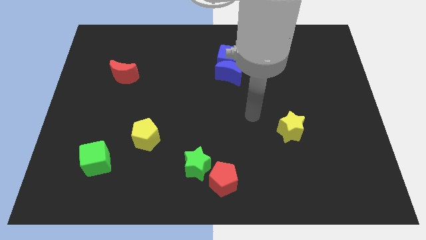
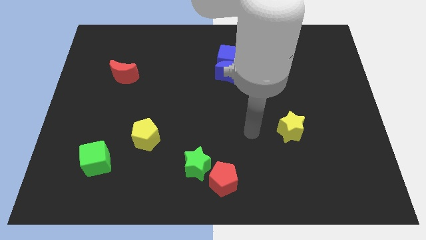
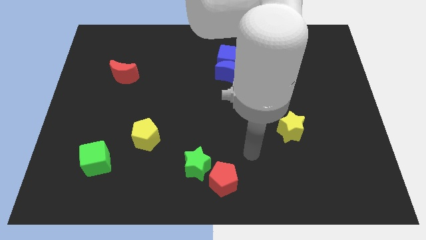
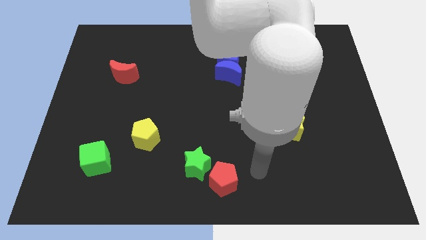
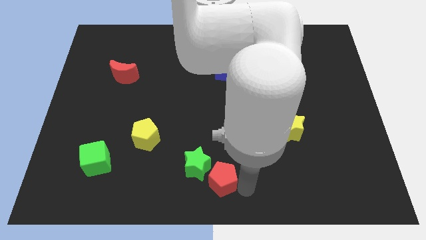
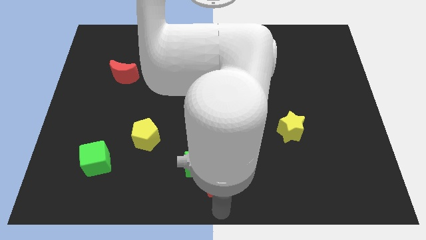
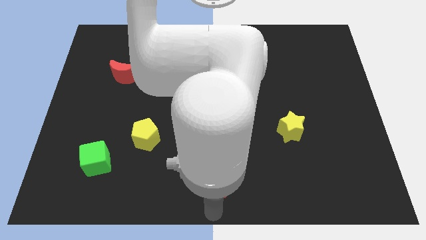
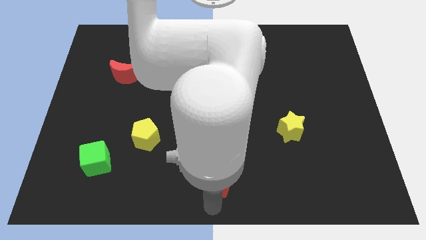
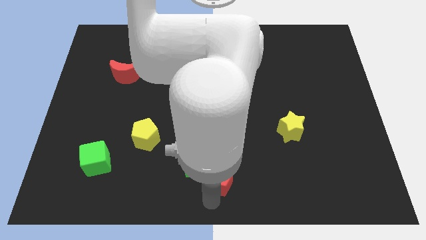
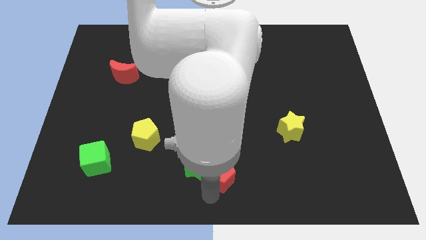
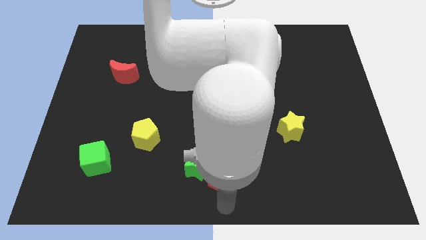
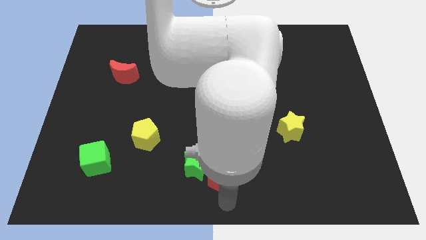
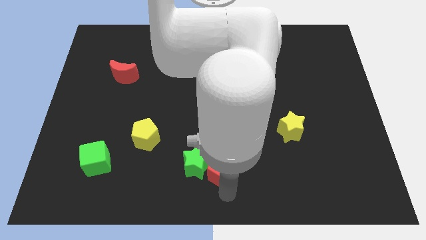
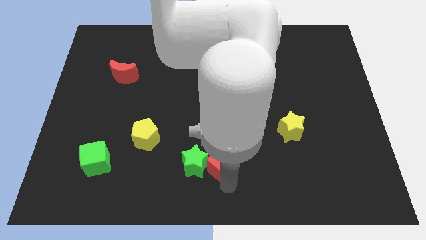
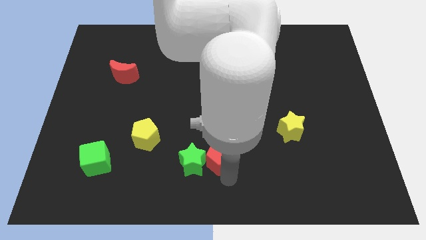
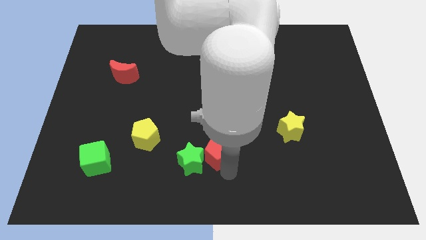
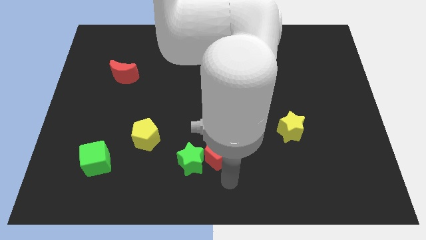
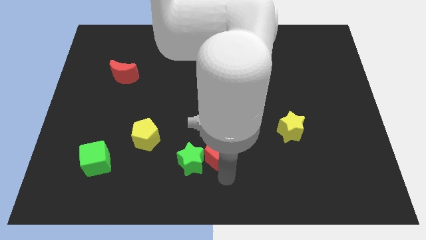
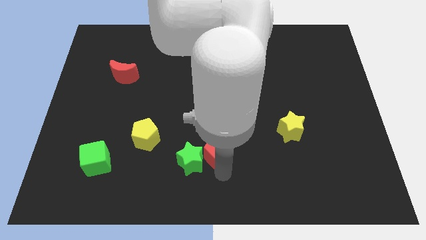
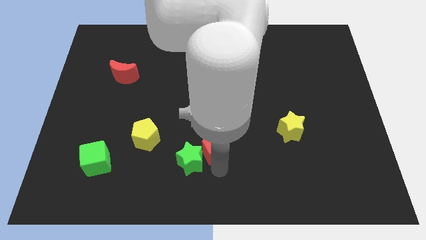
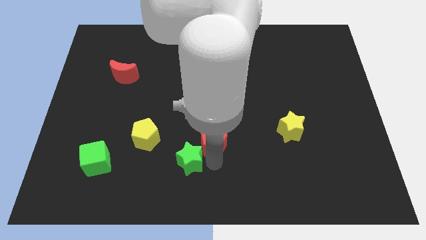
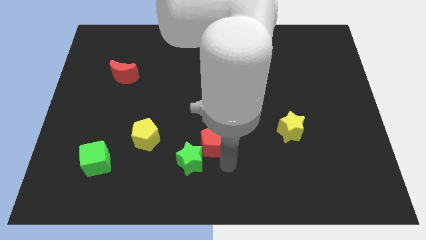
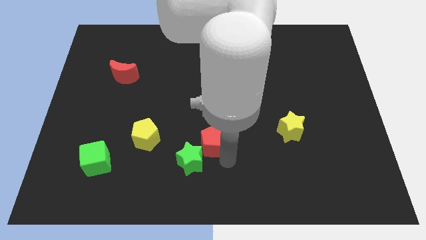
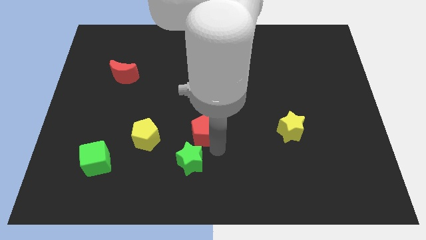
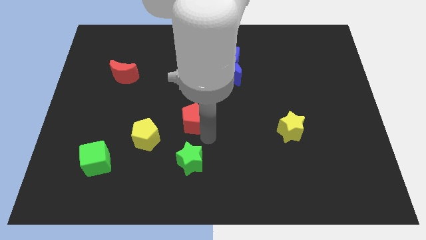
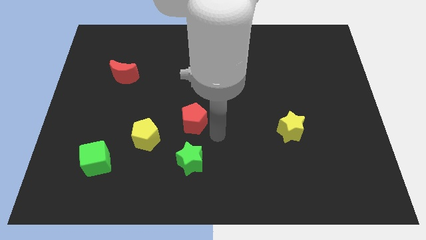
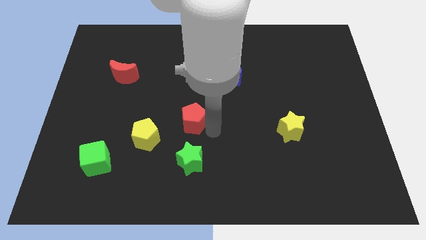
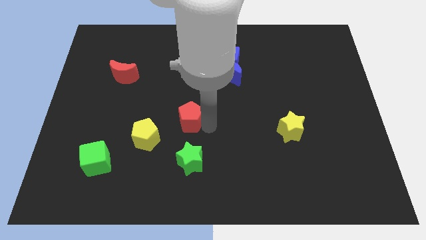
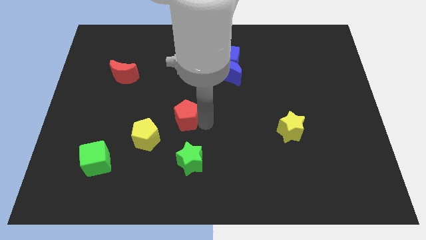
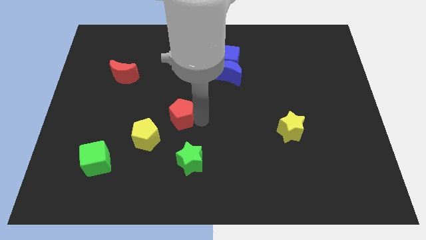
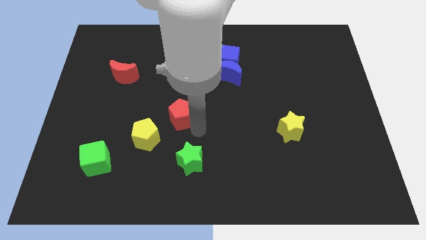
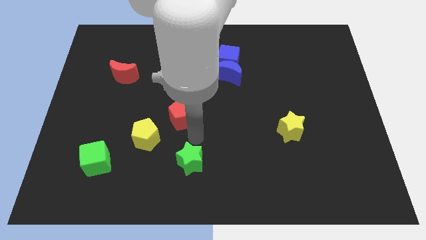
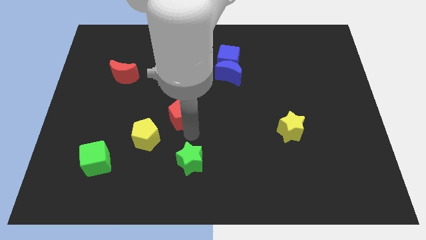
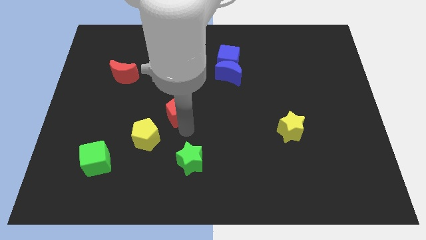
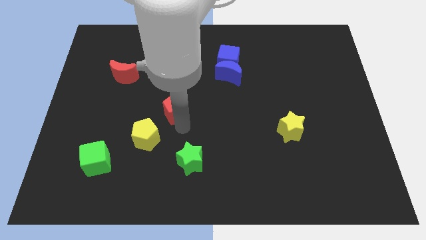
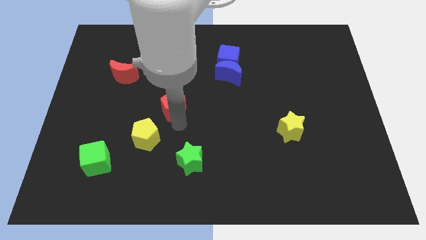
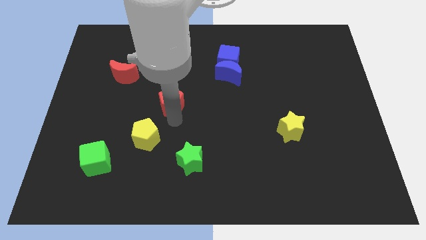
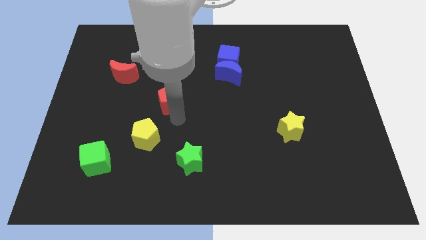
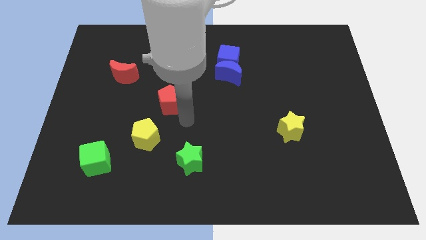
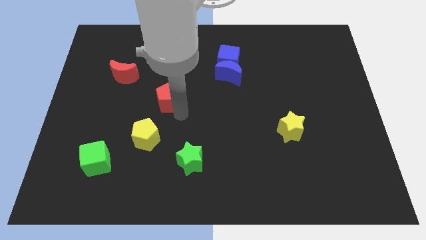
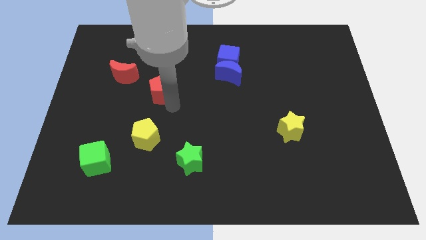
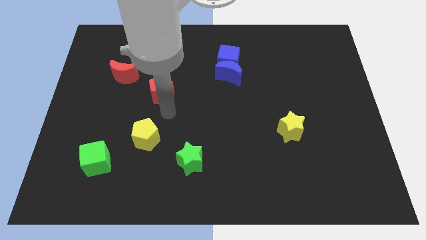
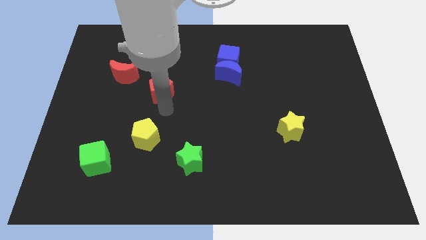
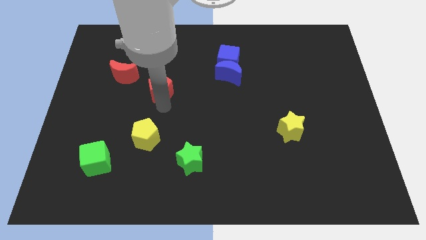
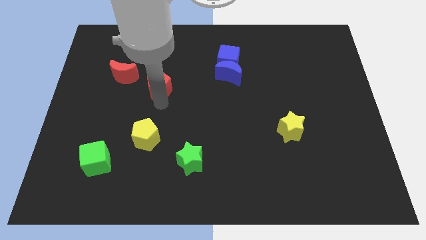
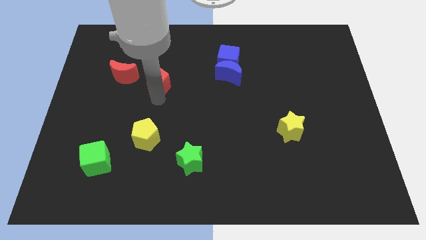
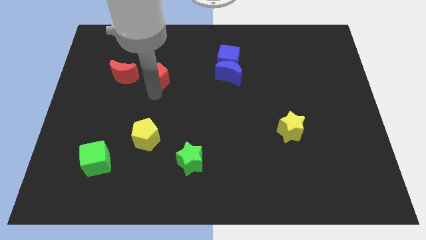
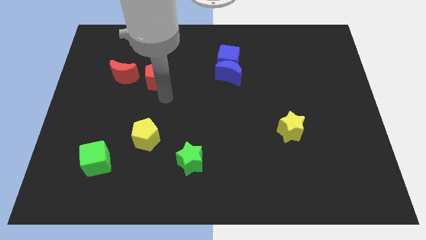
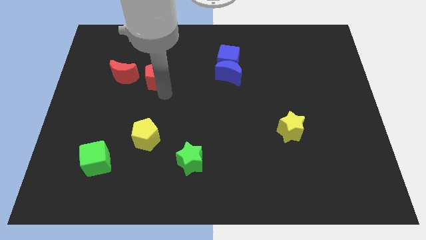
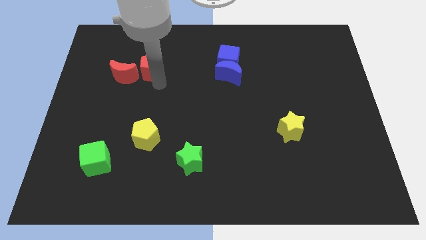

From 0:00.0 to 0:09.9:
put the red pentagon to the top right of the red moon

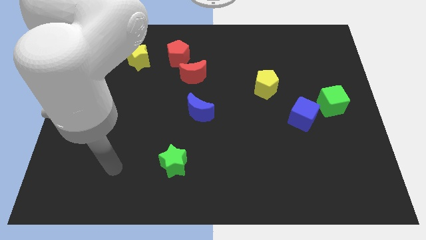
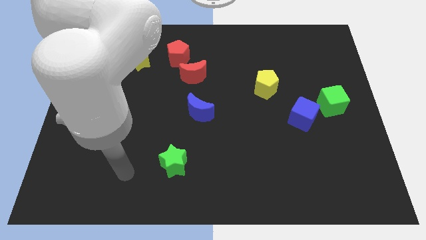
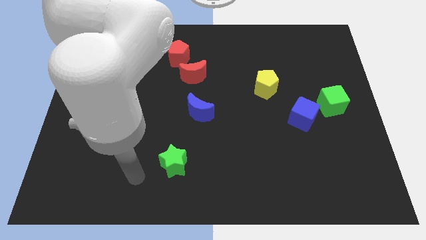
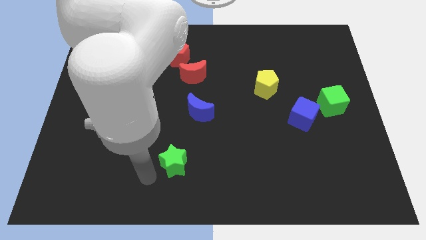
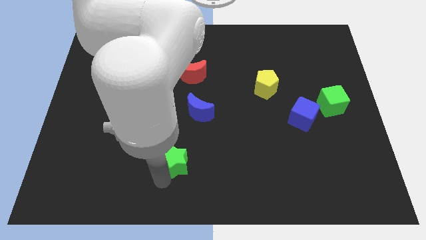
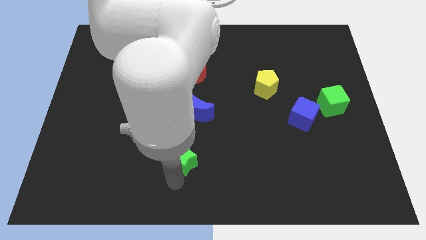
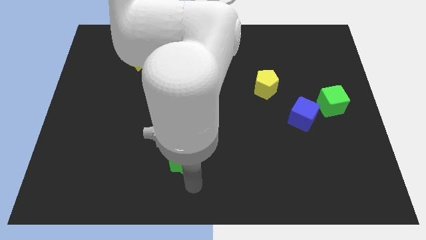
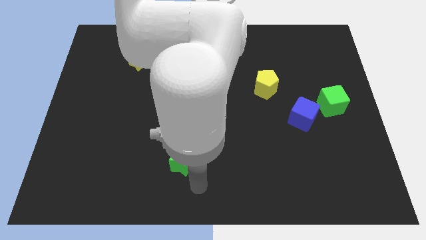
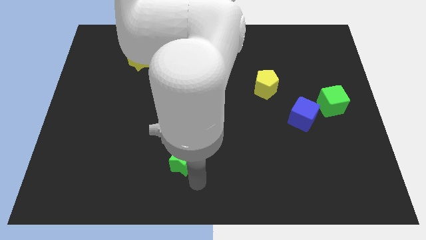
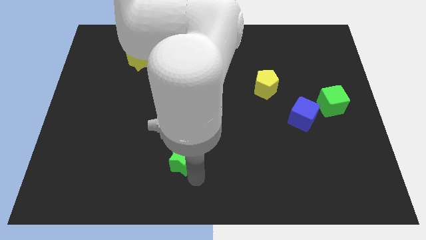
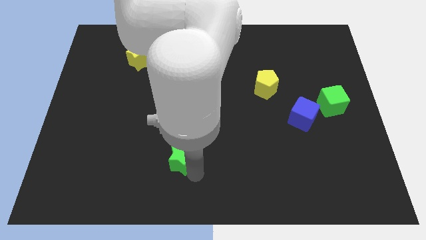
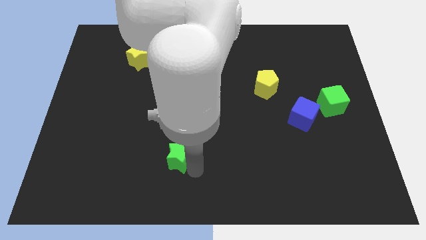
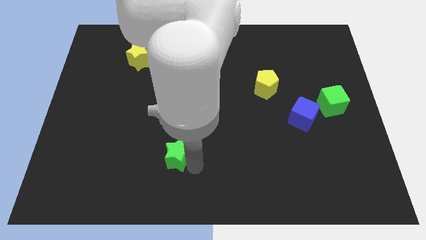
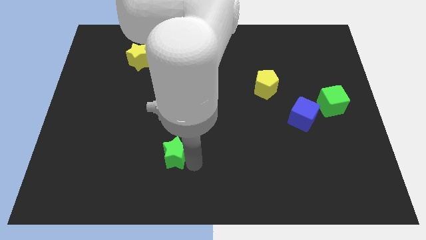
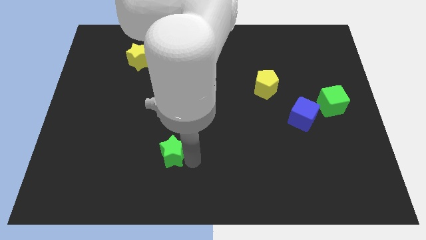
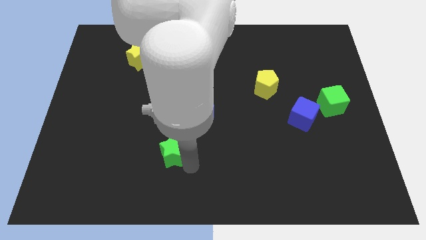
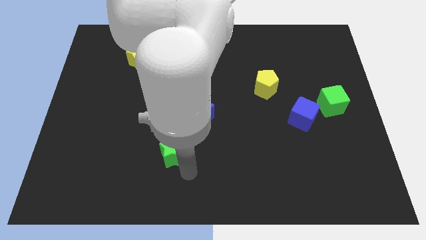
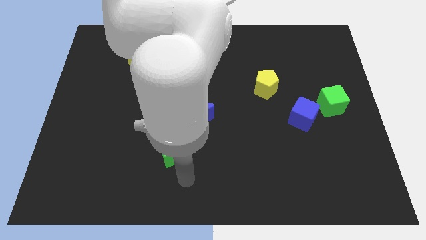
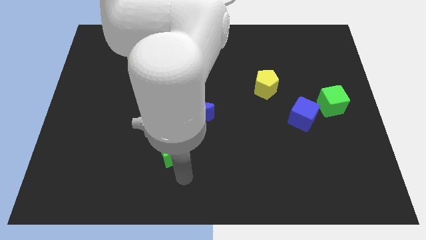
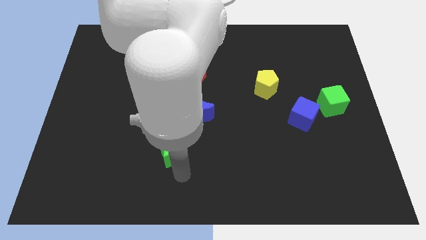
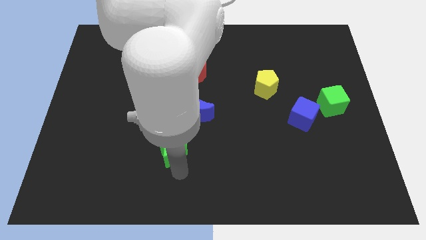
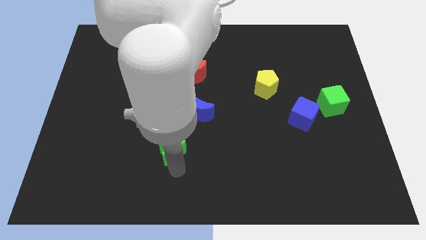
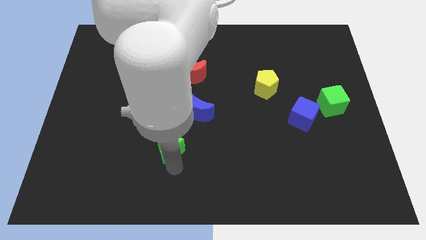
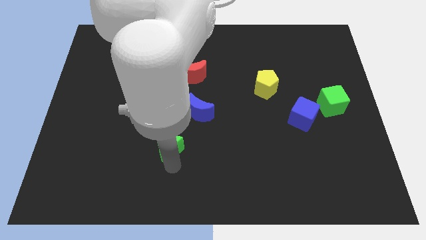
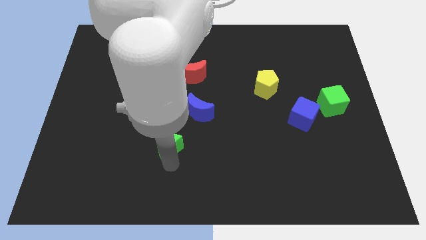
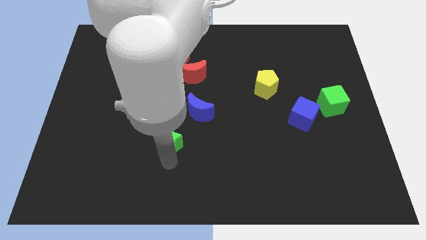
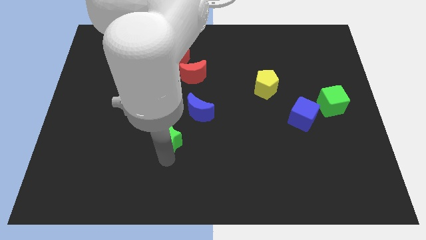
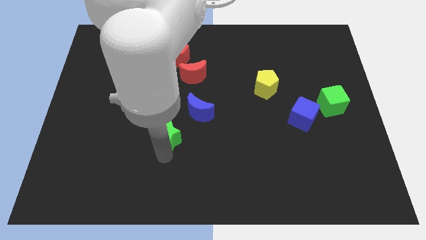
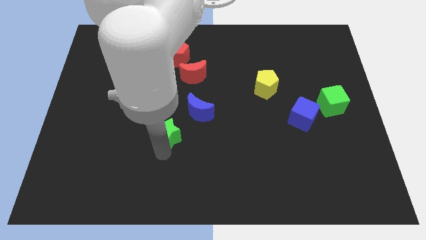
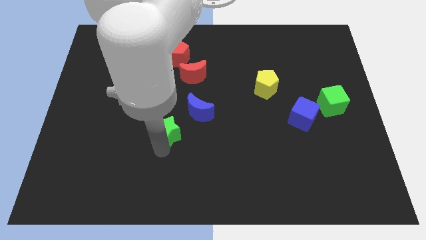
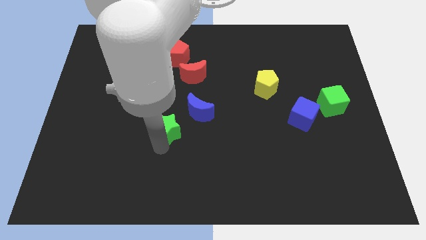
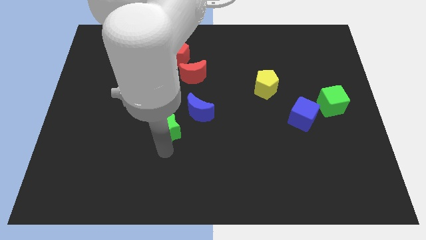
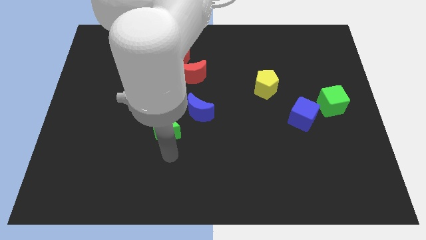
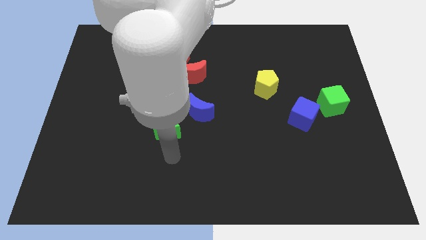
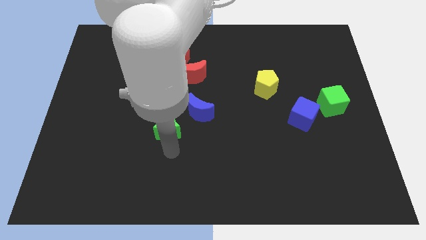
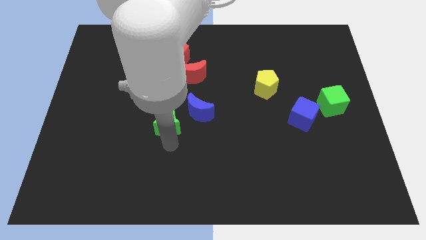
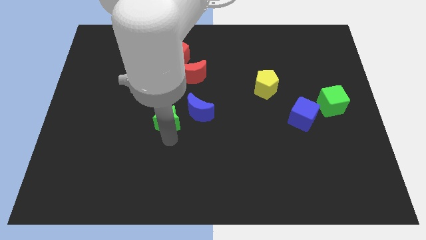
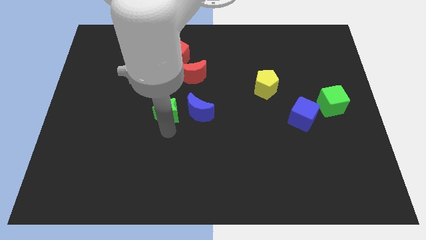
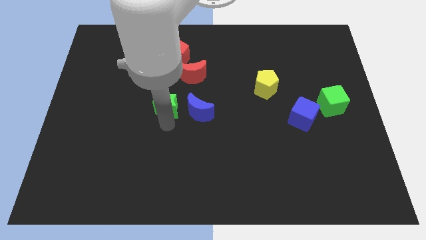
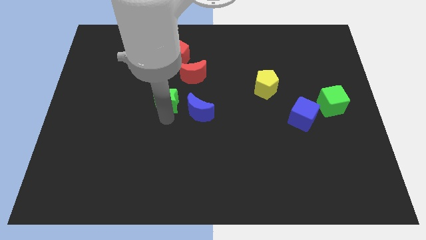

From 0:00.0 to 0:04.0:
slide the green star diagonally down and to the left of the red moon
